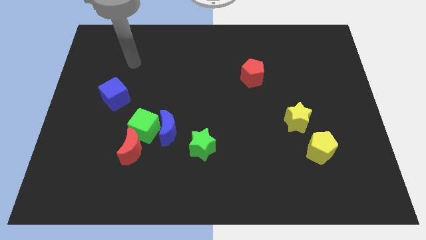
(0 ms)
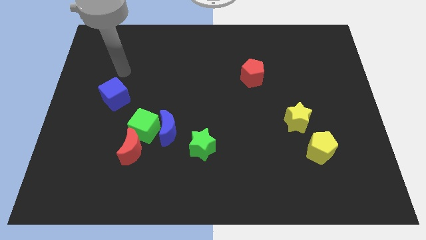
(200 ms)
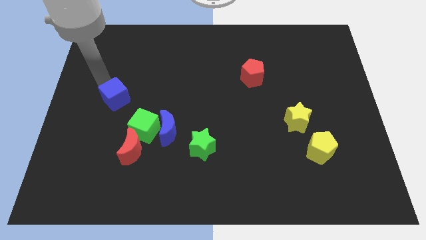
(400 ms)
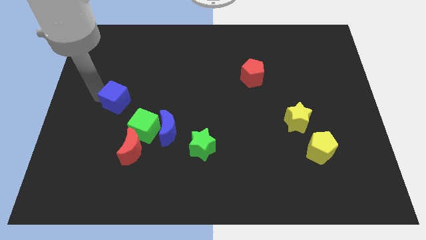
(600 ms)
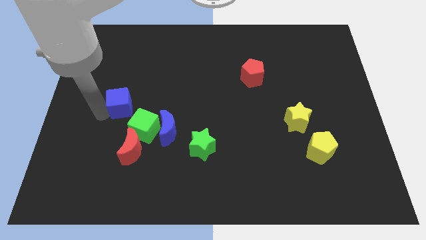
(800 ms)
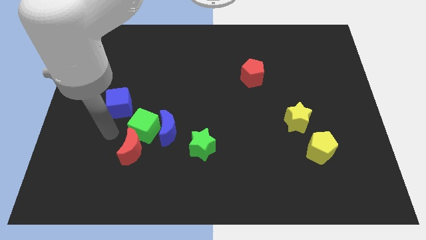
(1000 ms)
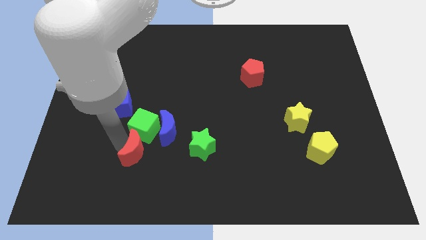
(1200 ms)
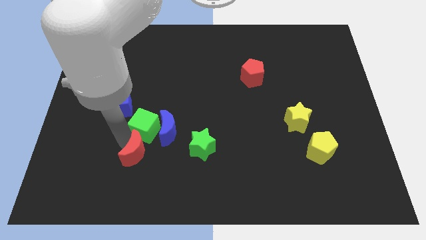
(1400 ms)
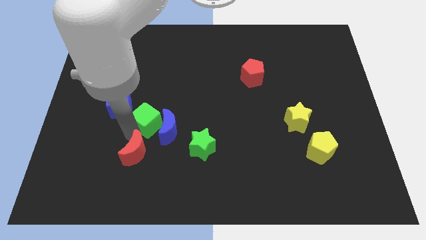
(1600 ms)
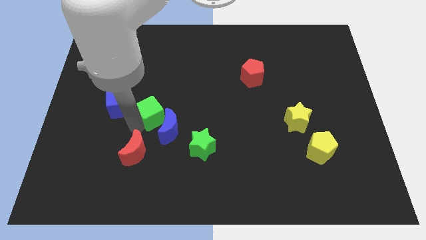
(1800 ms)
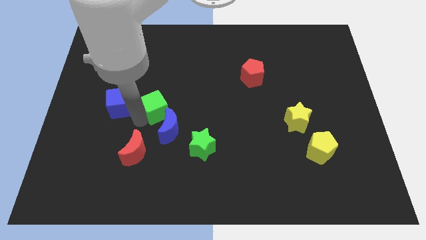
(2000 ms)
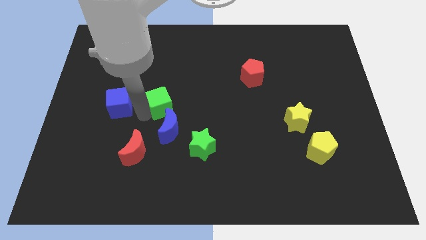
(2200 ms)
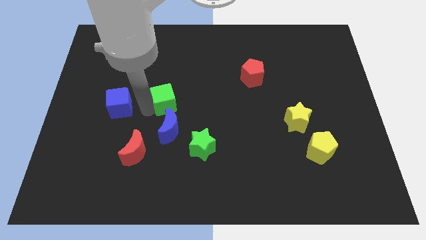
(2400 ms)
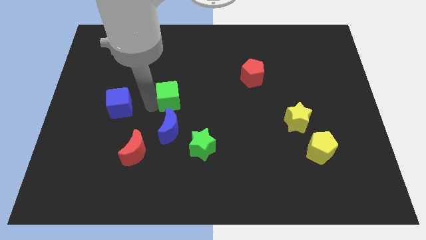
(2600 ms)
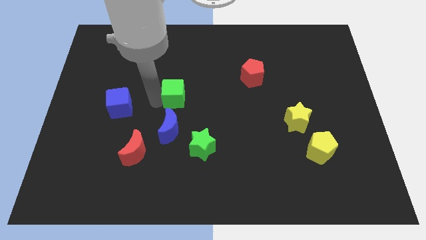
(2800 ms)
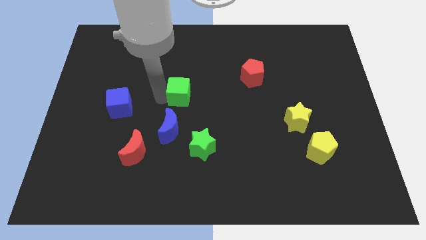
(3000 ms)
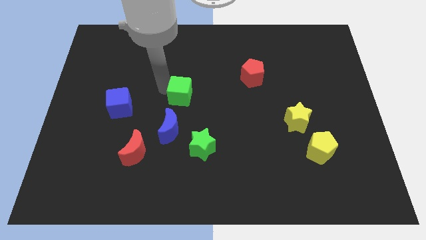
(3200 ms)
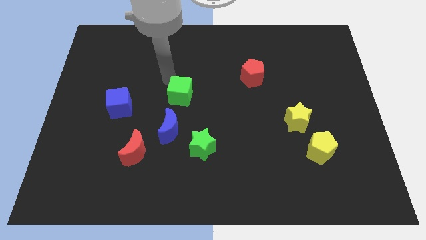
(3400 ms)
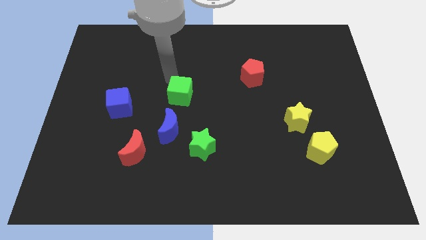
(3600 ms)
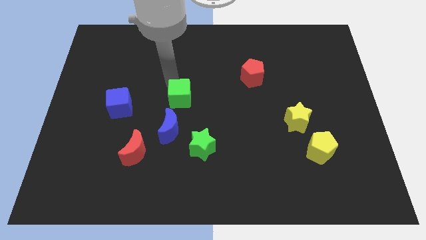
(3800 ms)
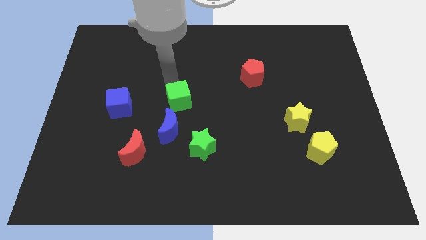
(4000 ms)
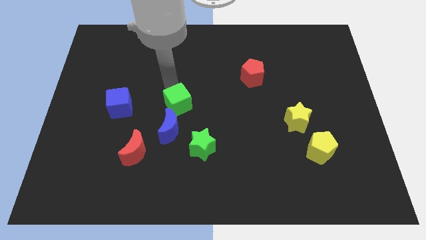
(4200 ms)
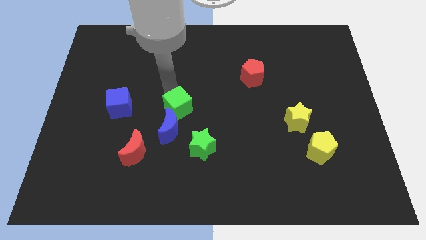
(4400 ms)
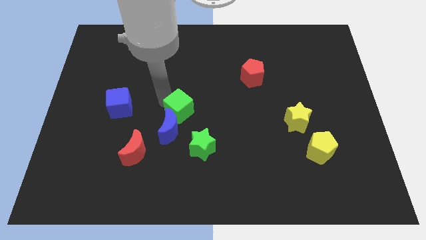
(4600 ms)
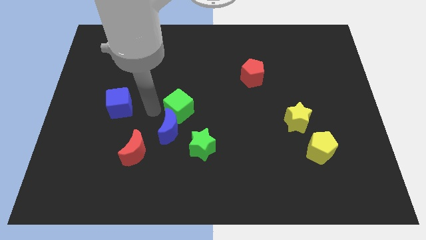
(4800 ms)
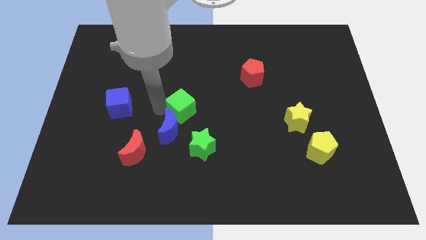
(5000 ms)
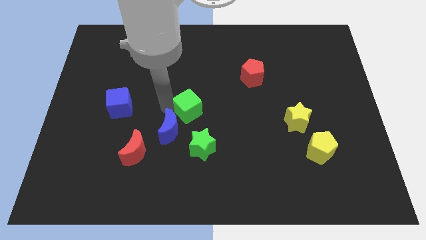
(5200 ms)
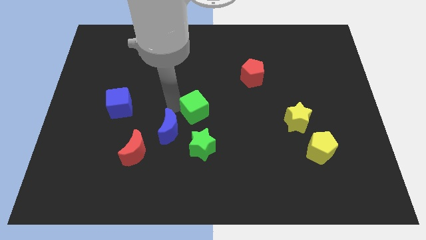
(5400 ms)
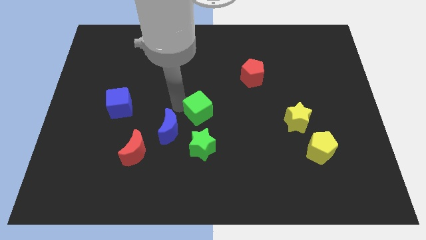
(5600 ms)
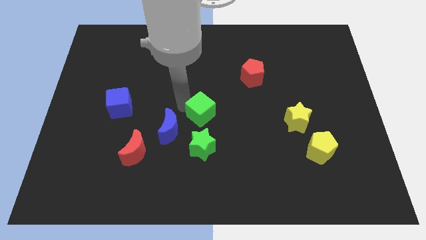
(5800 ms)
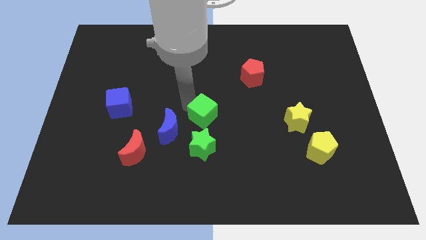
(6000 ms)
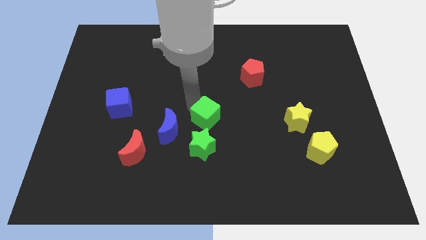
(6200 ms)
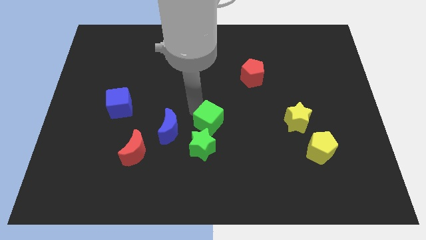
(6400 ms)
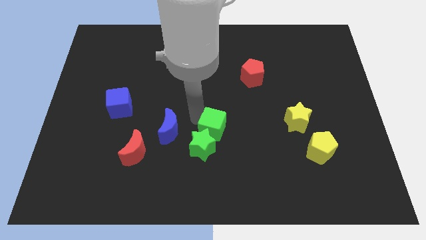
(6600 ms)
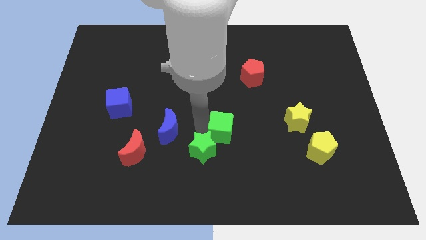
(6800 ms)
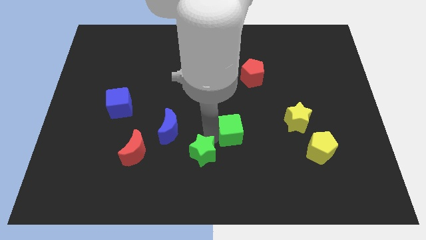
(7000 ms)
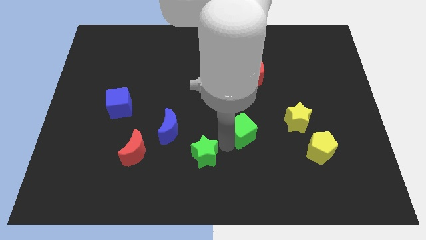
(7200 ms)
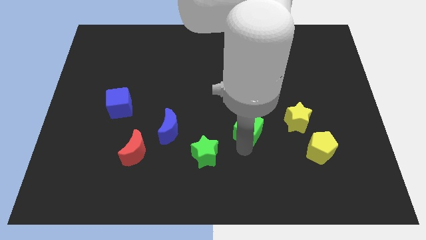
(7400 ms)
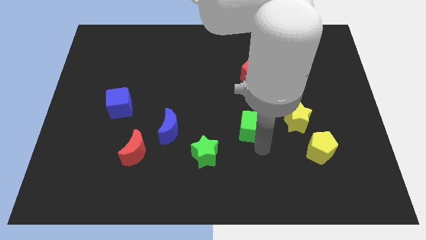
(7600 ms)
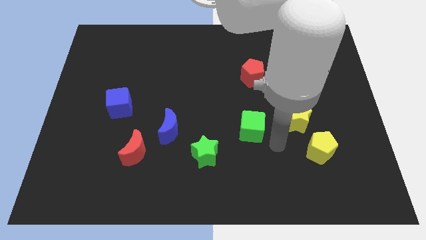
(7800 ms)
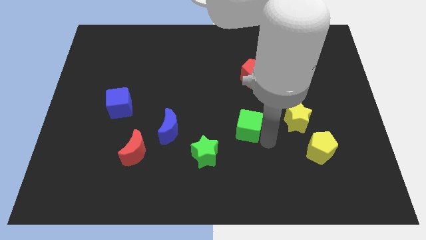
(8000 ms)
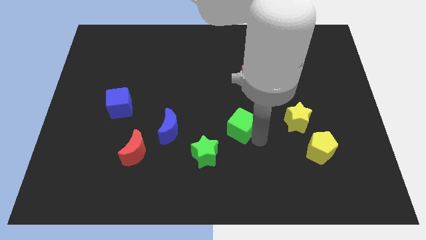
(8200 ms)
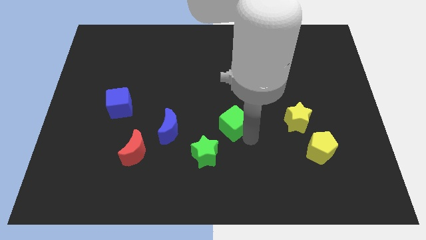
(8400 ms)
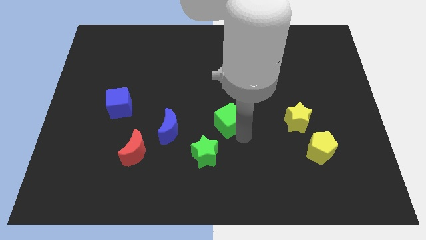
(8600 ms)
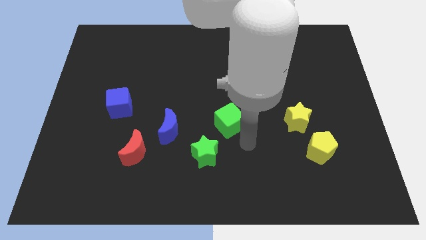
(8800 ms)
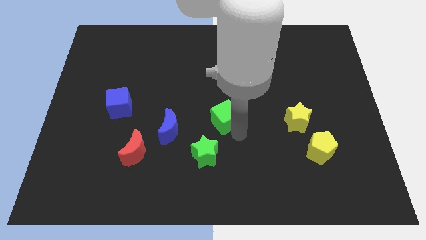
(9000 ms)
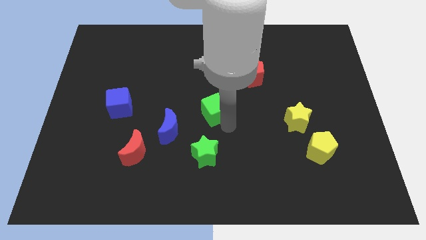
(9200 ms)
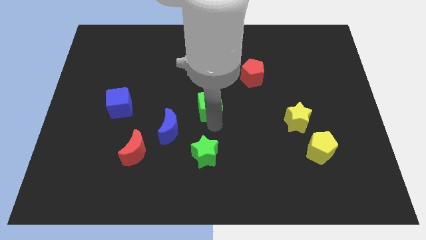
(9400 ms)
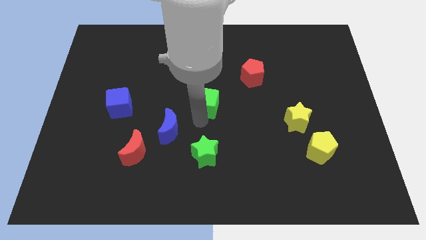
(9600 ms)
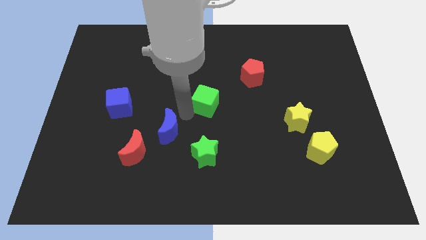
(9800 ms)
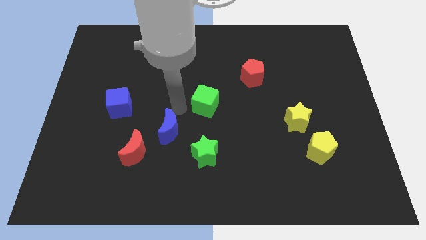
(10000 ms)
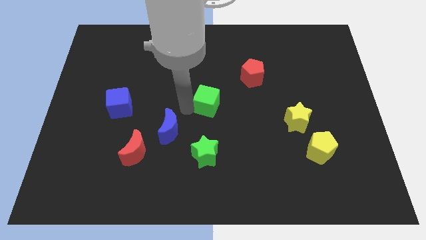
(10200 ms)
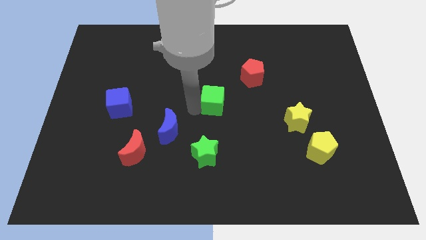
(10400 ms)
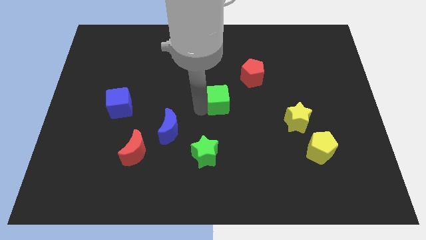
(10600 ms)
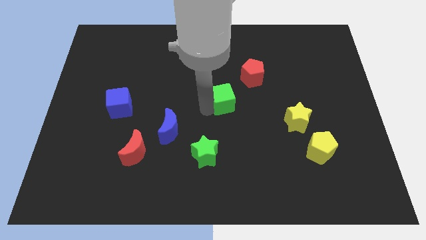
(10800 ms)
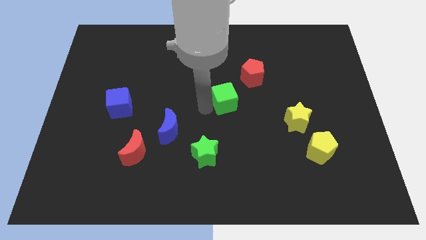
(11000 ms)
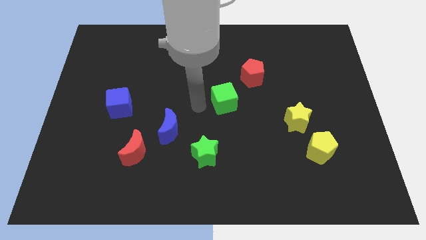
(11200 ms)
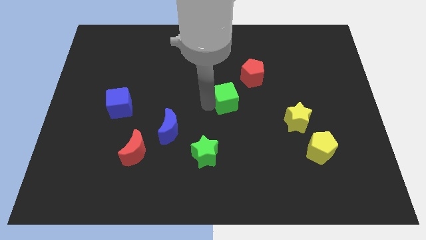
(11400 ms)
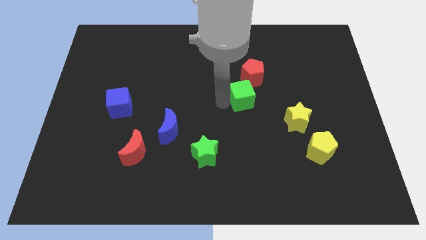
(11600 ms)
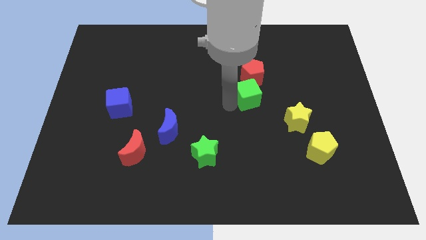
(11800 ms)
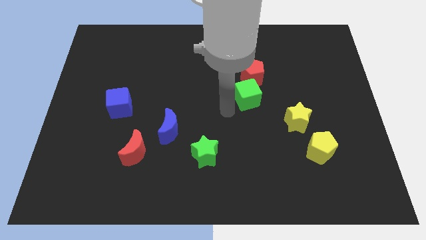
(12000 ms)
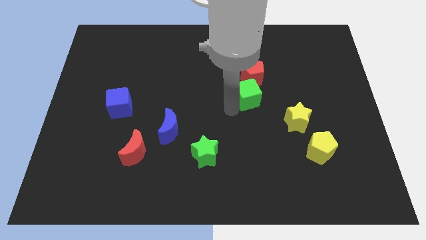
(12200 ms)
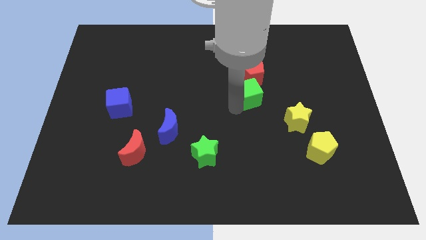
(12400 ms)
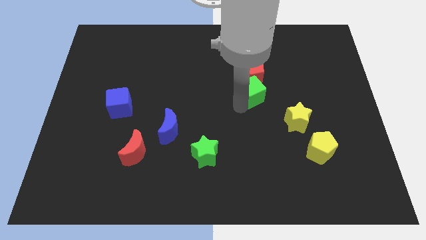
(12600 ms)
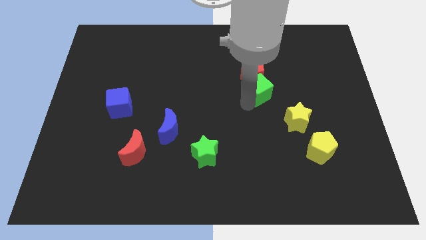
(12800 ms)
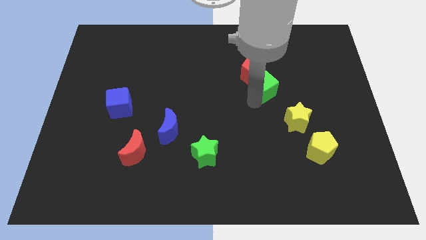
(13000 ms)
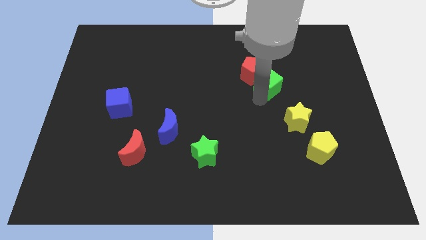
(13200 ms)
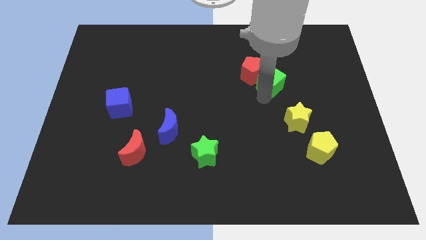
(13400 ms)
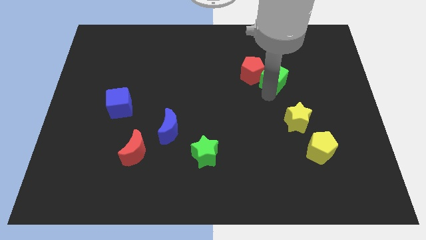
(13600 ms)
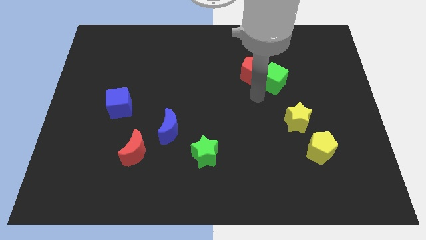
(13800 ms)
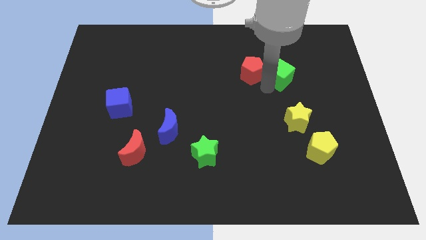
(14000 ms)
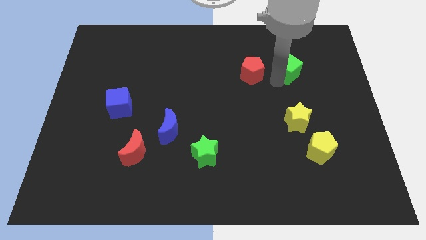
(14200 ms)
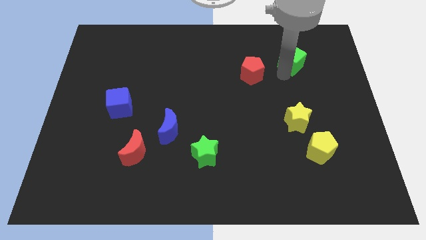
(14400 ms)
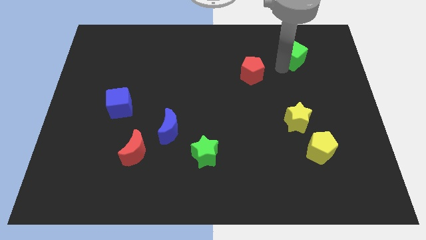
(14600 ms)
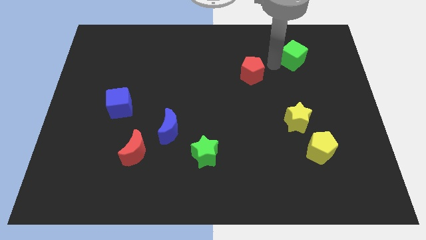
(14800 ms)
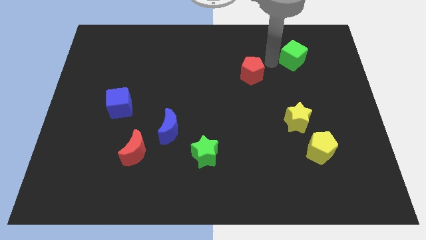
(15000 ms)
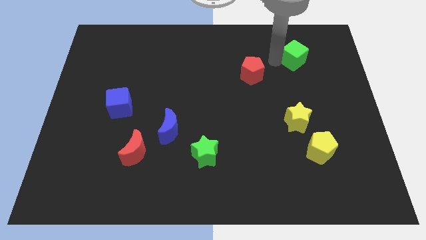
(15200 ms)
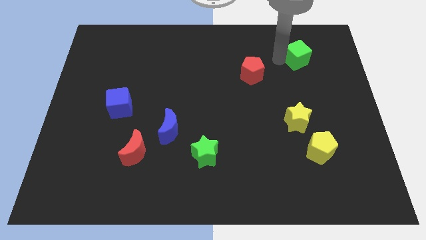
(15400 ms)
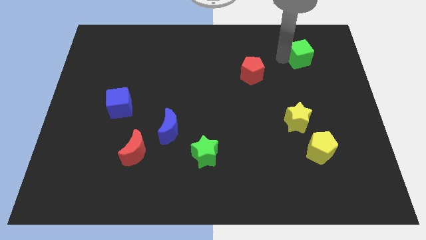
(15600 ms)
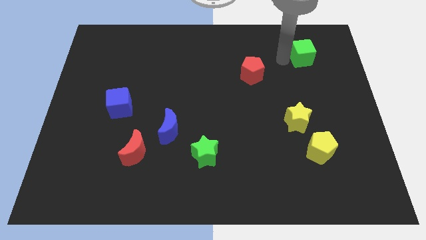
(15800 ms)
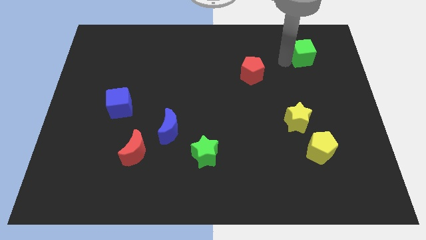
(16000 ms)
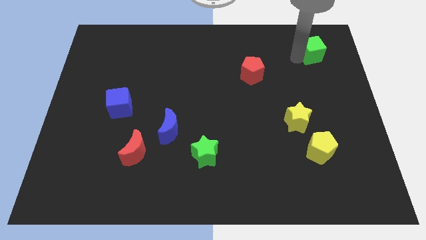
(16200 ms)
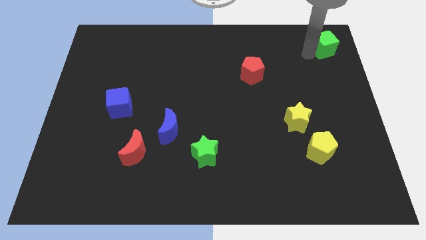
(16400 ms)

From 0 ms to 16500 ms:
slide the green cube to the top right corner
